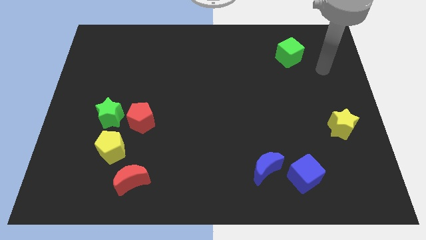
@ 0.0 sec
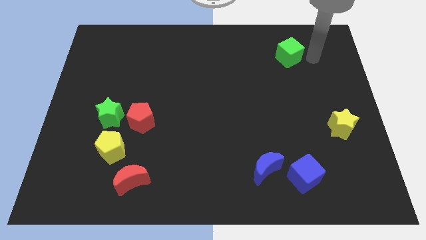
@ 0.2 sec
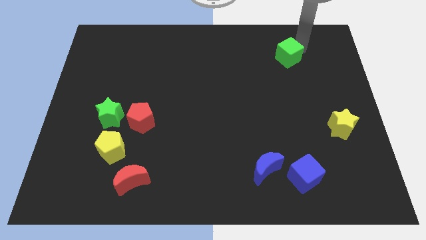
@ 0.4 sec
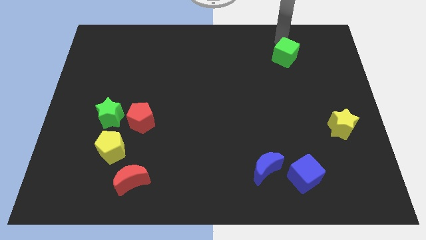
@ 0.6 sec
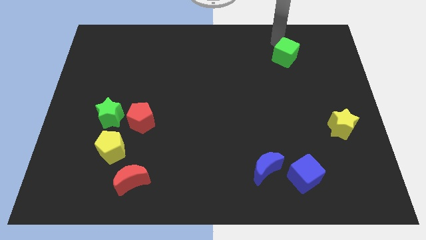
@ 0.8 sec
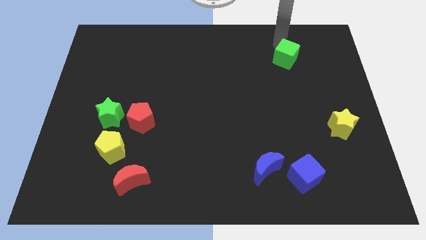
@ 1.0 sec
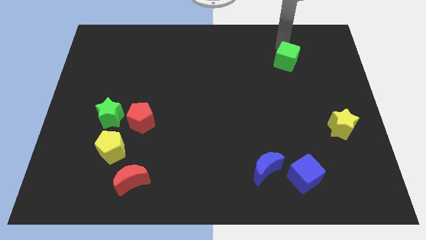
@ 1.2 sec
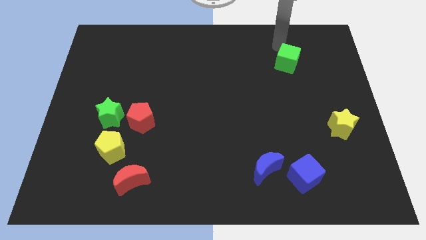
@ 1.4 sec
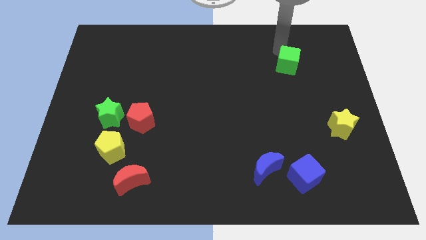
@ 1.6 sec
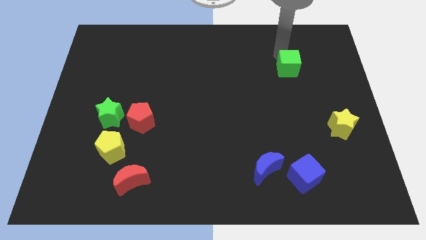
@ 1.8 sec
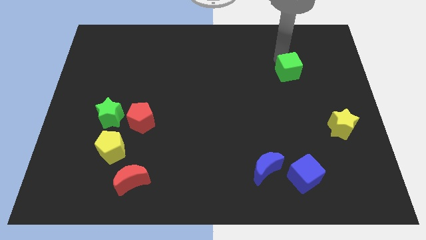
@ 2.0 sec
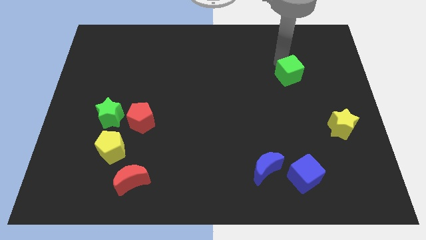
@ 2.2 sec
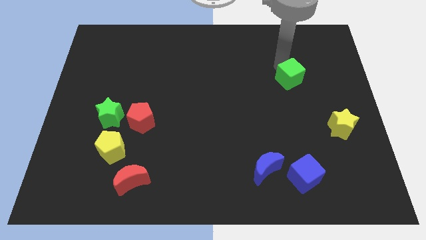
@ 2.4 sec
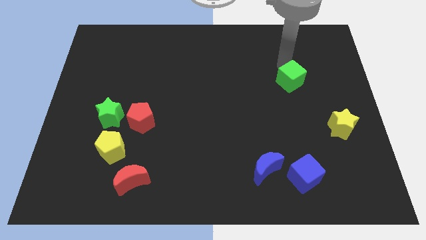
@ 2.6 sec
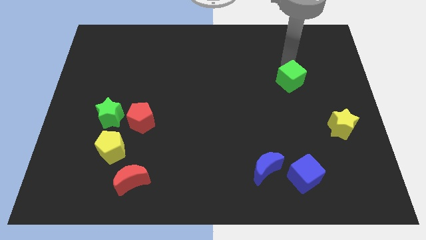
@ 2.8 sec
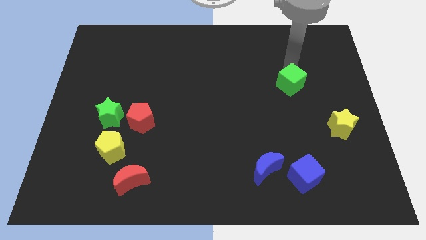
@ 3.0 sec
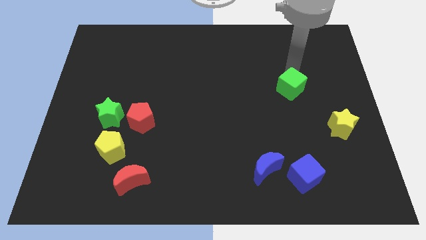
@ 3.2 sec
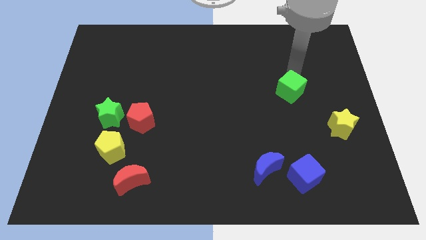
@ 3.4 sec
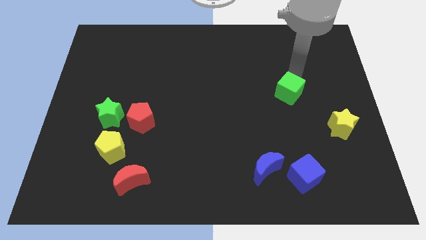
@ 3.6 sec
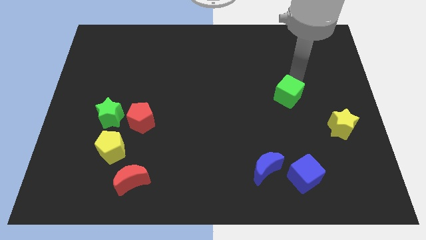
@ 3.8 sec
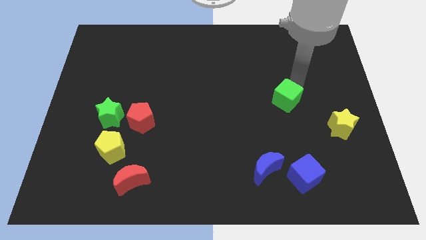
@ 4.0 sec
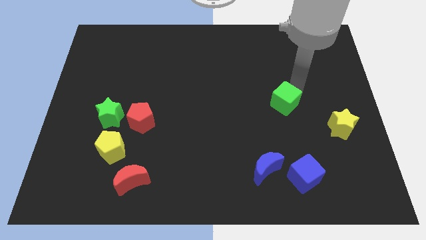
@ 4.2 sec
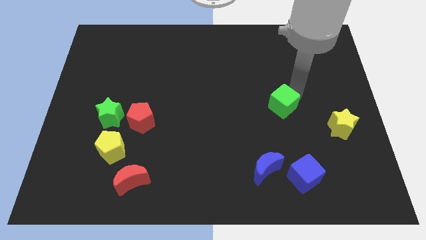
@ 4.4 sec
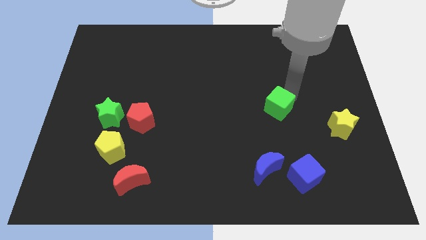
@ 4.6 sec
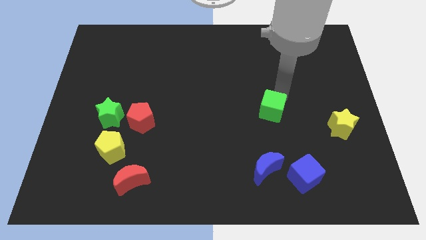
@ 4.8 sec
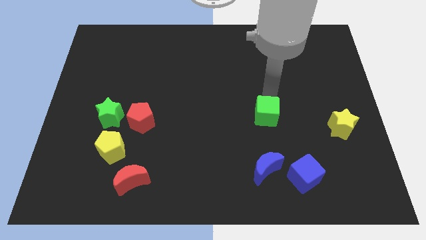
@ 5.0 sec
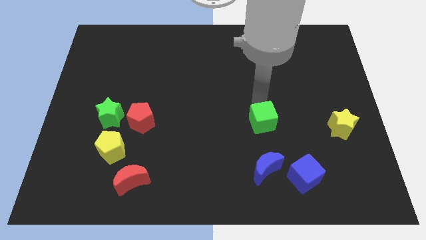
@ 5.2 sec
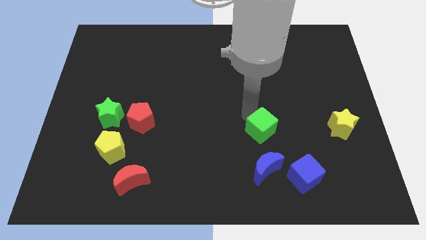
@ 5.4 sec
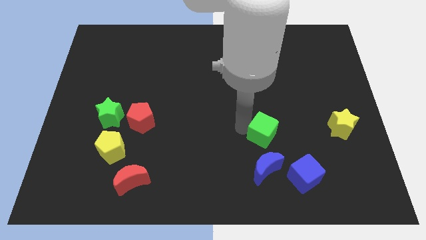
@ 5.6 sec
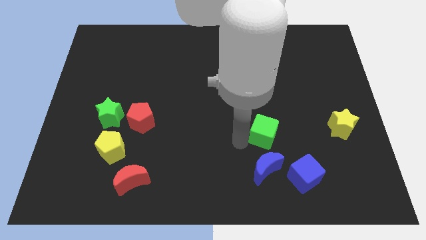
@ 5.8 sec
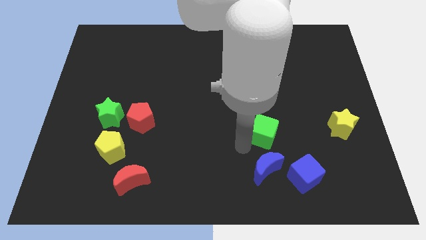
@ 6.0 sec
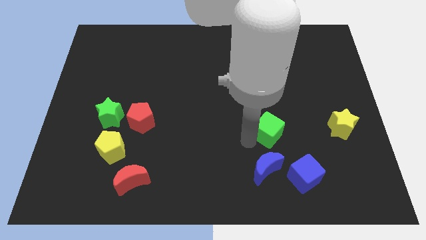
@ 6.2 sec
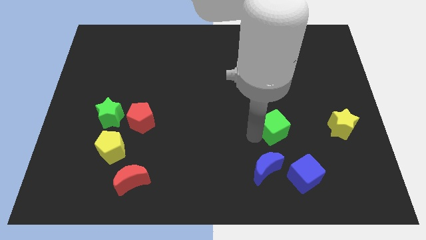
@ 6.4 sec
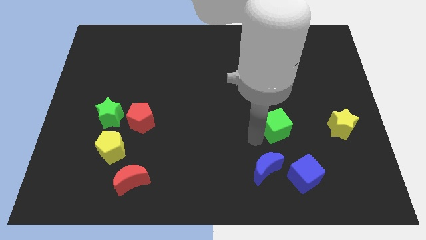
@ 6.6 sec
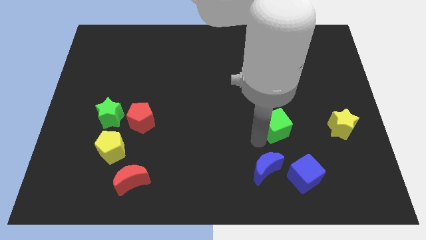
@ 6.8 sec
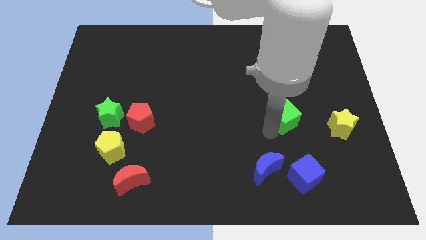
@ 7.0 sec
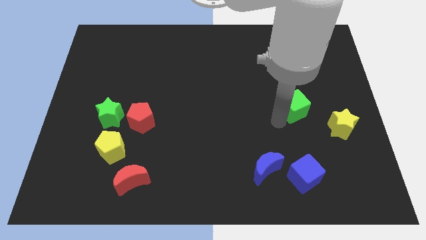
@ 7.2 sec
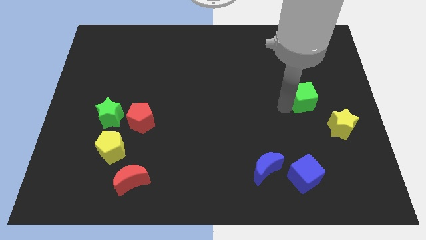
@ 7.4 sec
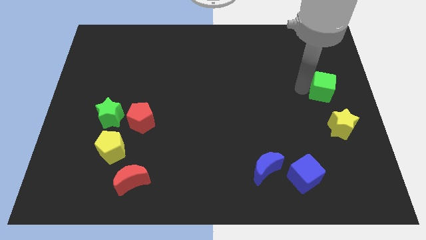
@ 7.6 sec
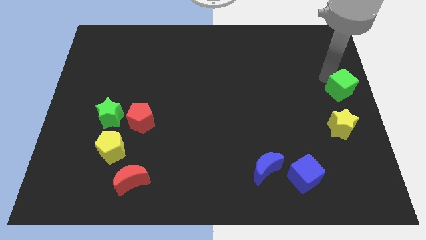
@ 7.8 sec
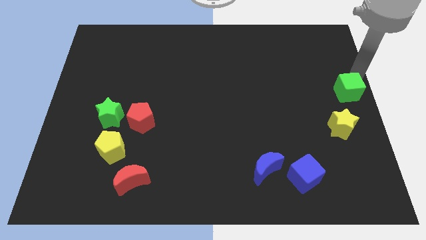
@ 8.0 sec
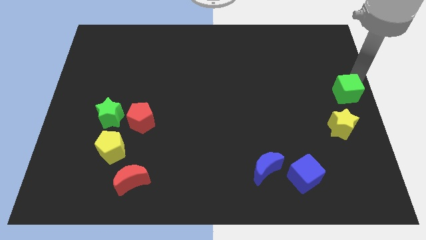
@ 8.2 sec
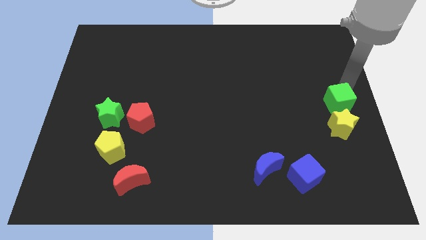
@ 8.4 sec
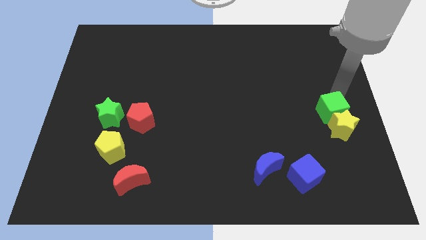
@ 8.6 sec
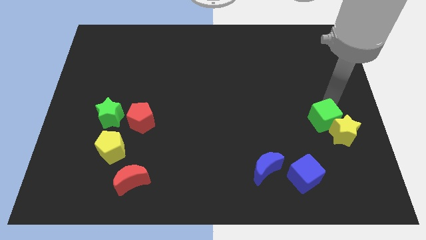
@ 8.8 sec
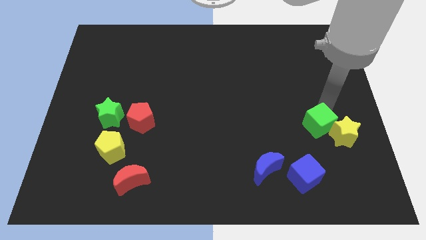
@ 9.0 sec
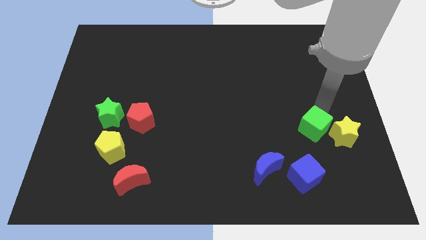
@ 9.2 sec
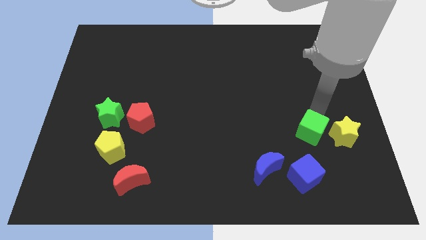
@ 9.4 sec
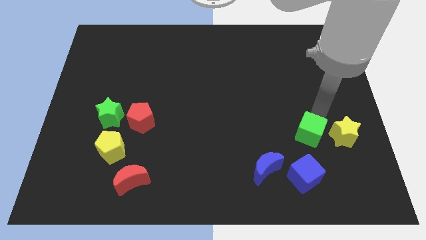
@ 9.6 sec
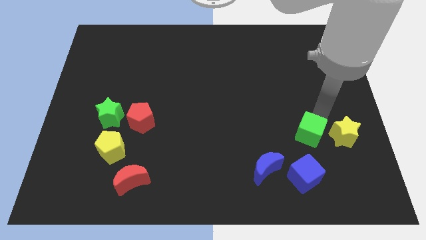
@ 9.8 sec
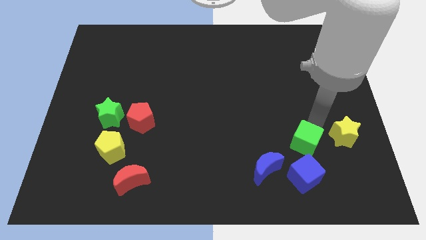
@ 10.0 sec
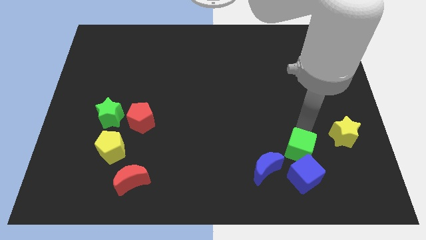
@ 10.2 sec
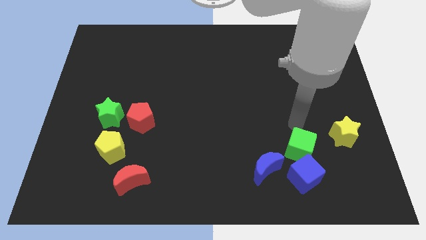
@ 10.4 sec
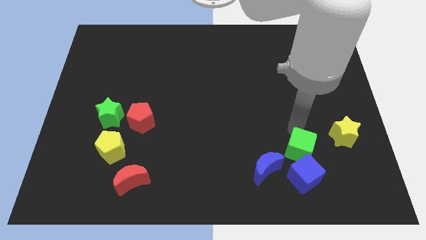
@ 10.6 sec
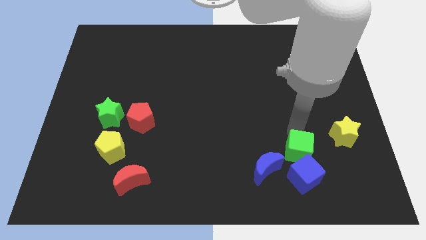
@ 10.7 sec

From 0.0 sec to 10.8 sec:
push the green cube to the blue cube

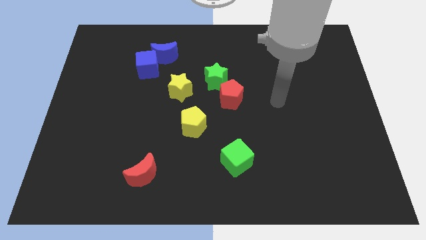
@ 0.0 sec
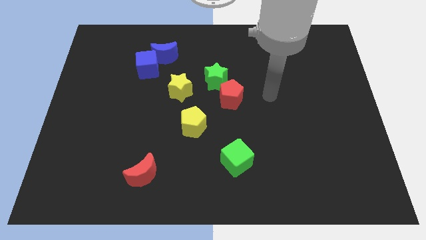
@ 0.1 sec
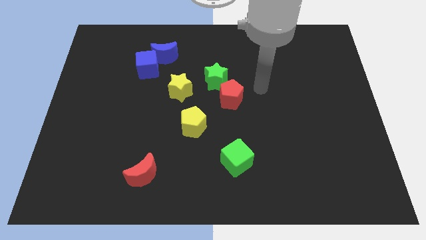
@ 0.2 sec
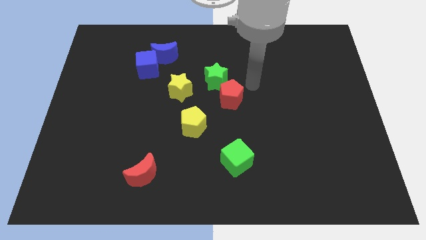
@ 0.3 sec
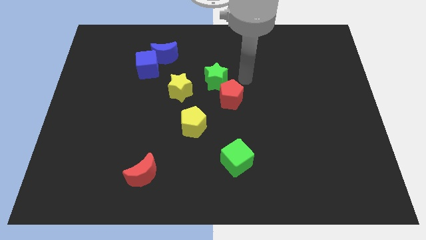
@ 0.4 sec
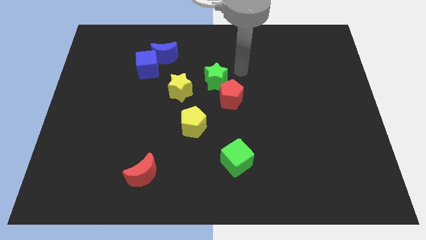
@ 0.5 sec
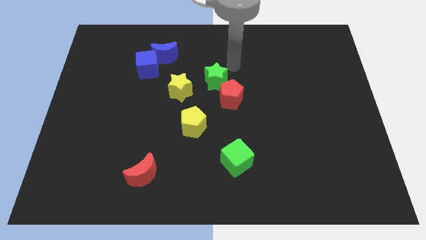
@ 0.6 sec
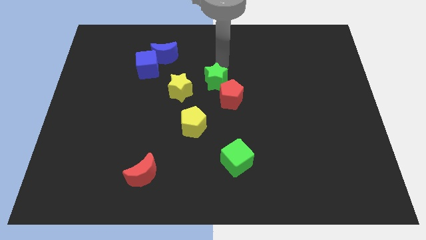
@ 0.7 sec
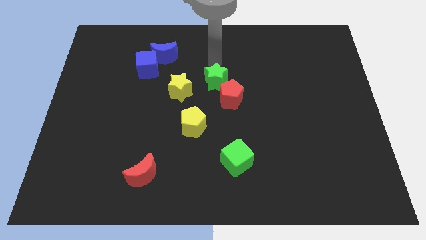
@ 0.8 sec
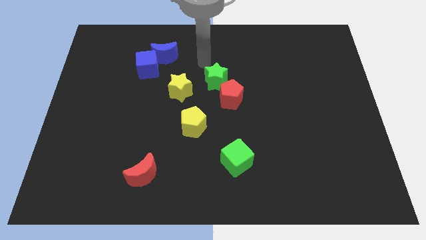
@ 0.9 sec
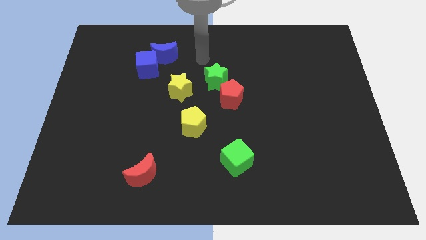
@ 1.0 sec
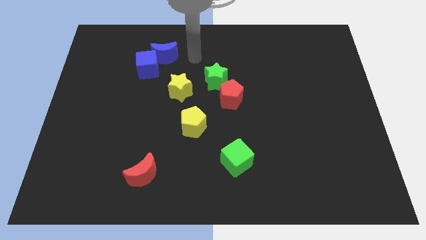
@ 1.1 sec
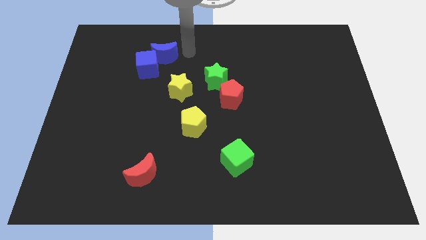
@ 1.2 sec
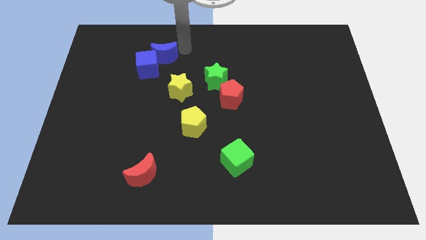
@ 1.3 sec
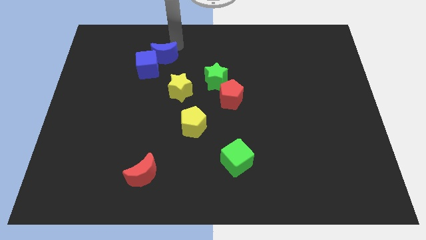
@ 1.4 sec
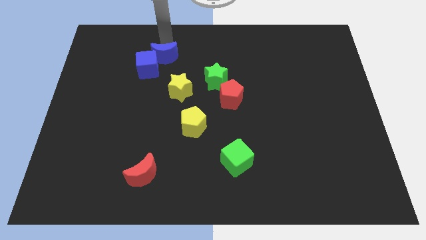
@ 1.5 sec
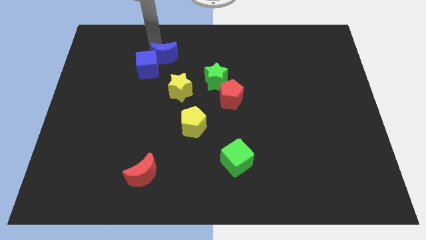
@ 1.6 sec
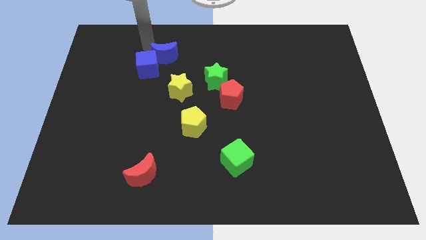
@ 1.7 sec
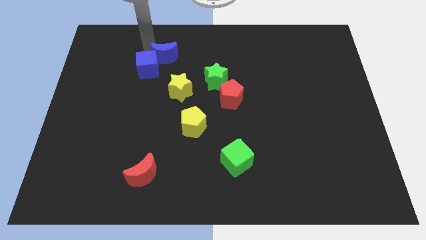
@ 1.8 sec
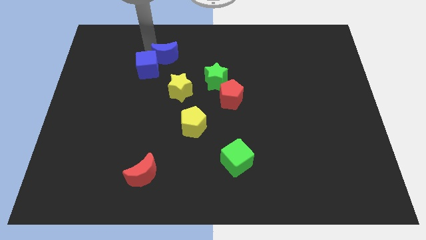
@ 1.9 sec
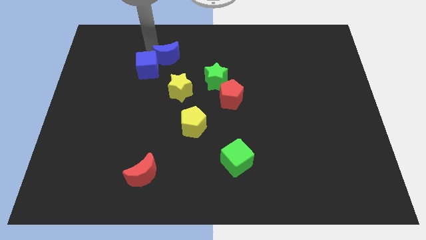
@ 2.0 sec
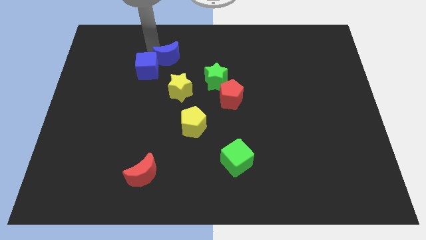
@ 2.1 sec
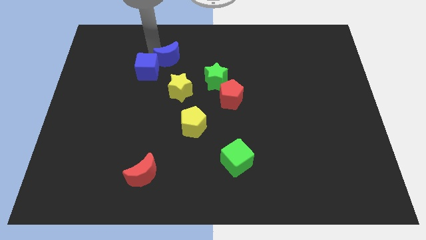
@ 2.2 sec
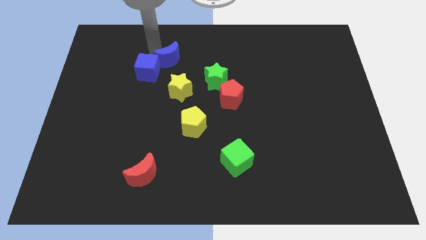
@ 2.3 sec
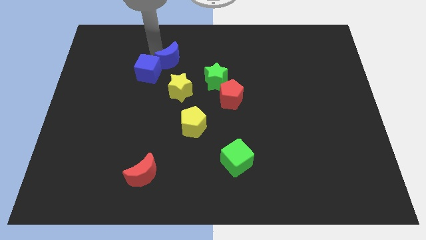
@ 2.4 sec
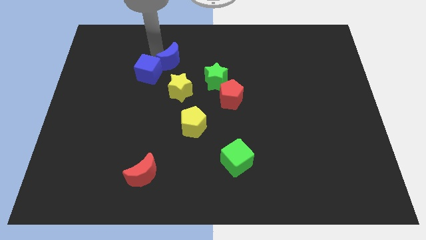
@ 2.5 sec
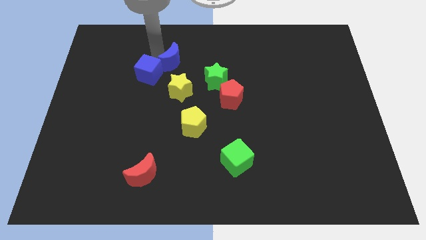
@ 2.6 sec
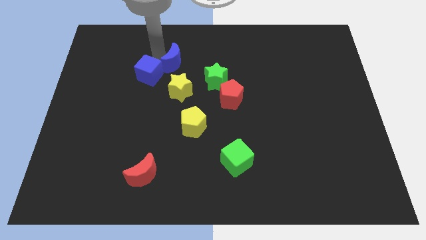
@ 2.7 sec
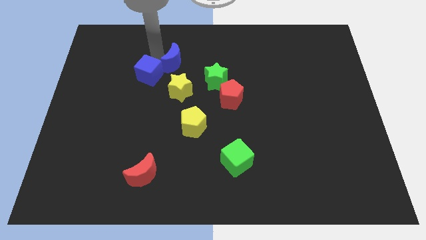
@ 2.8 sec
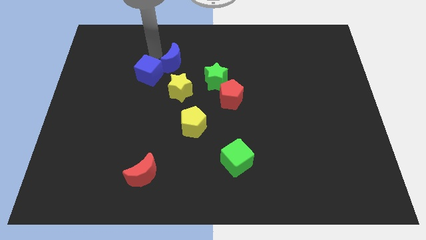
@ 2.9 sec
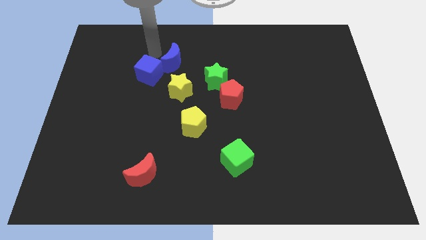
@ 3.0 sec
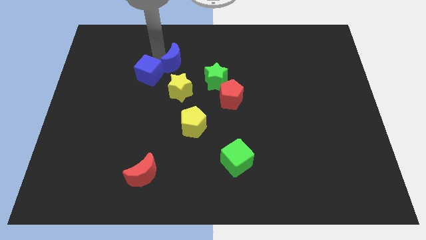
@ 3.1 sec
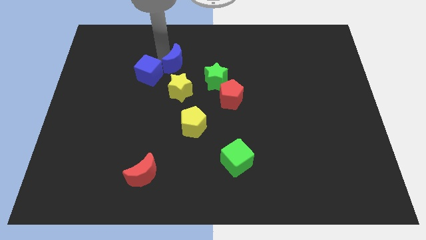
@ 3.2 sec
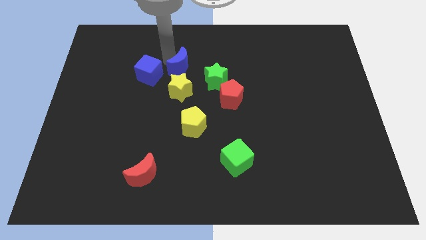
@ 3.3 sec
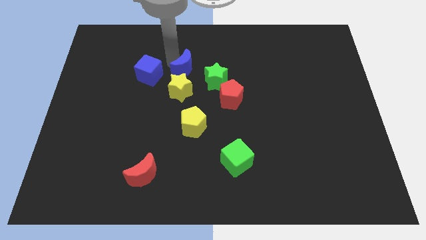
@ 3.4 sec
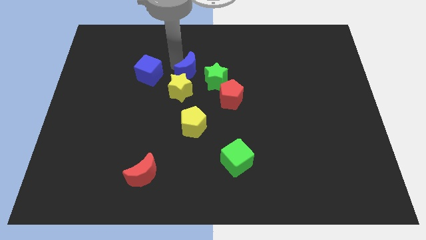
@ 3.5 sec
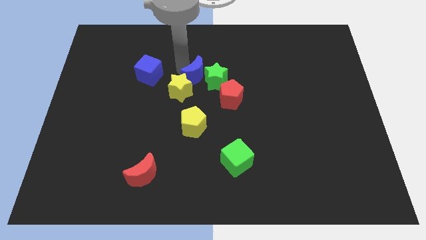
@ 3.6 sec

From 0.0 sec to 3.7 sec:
slide the blue moon close to the green star
